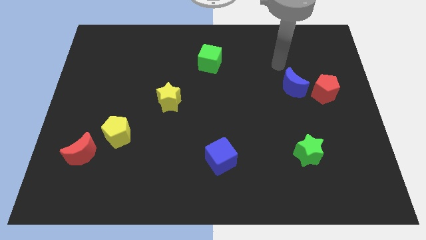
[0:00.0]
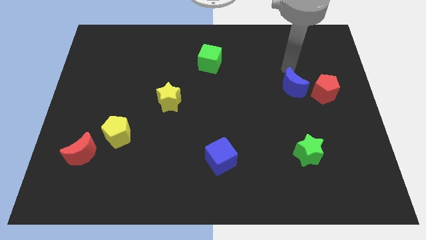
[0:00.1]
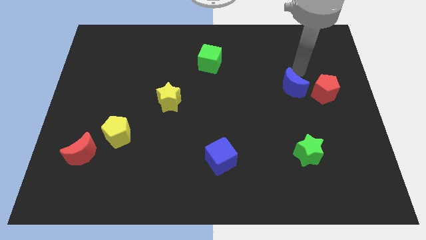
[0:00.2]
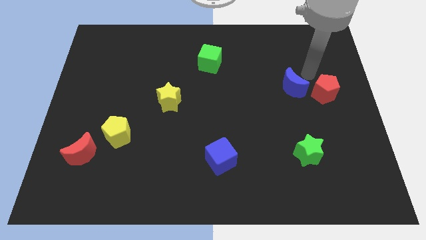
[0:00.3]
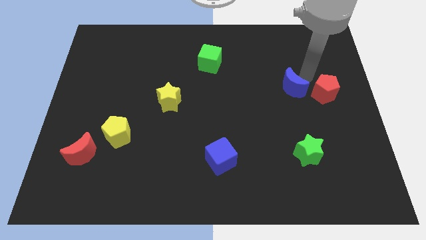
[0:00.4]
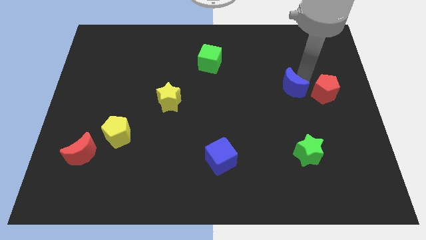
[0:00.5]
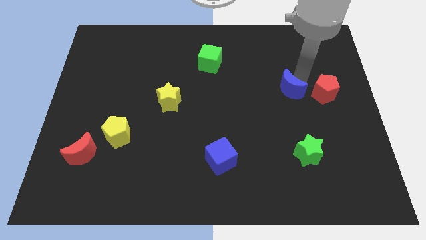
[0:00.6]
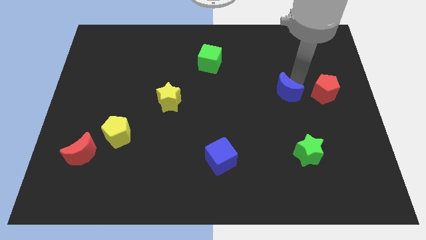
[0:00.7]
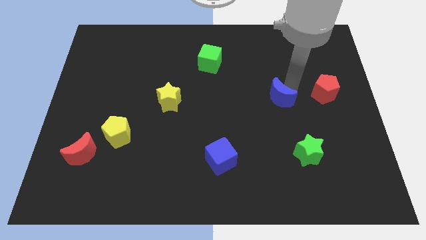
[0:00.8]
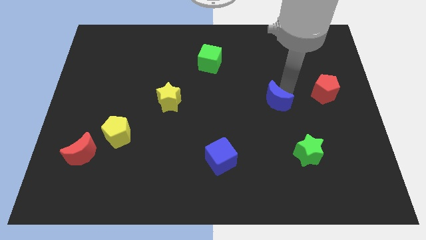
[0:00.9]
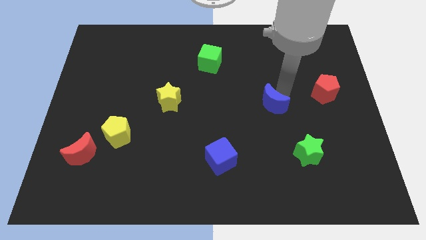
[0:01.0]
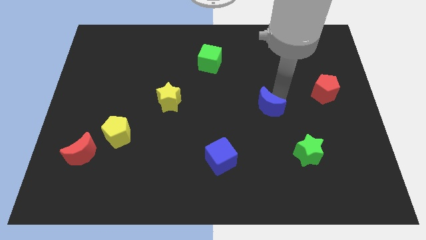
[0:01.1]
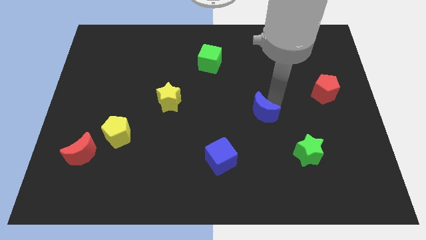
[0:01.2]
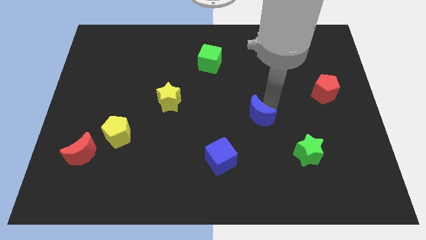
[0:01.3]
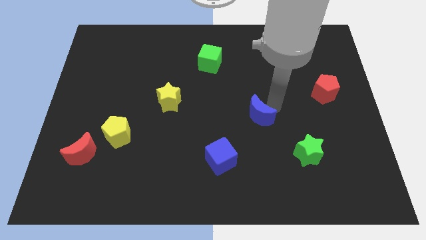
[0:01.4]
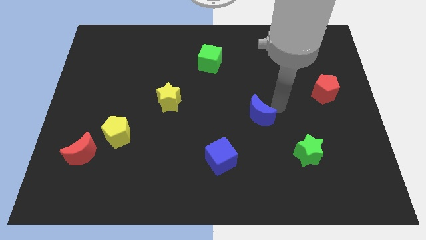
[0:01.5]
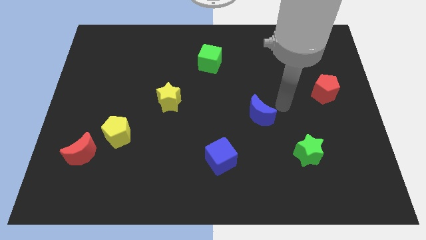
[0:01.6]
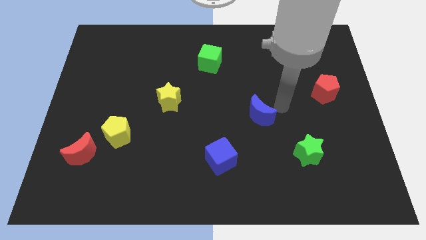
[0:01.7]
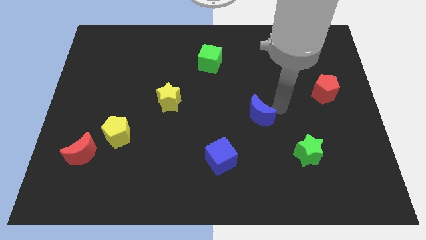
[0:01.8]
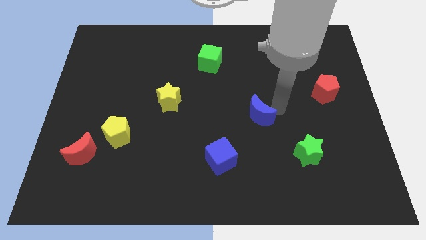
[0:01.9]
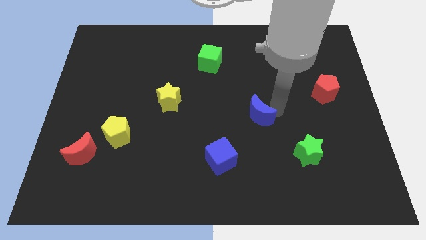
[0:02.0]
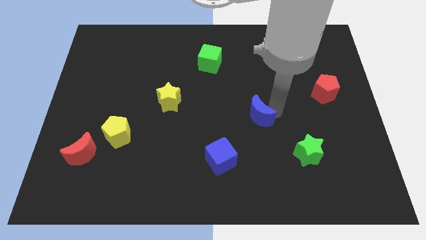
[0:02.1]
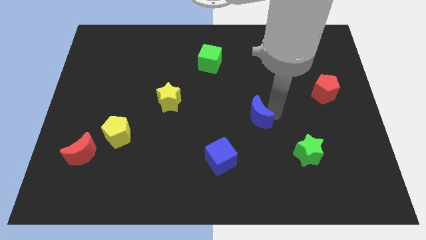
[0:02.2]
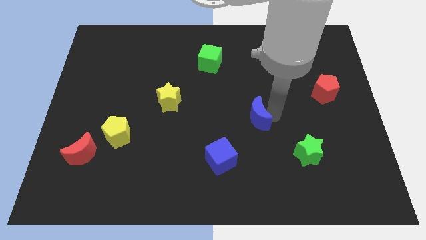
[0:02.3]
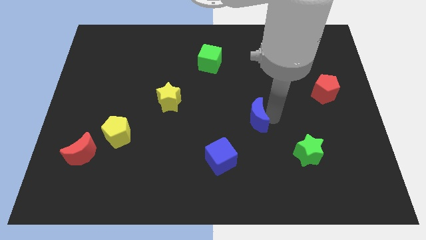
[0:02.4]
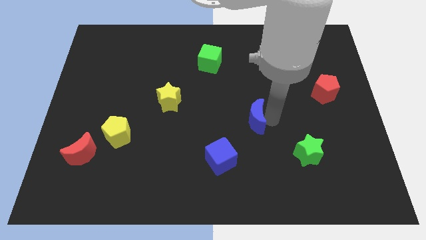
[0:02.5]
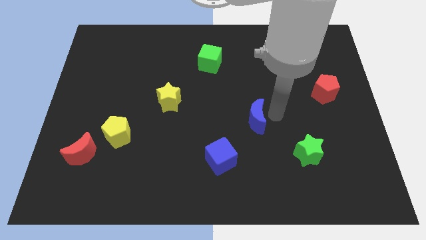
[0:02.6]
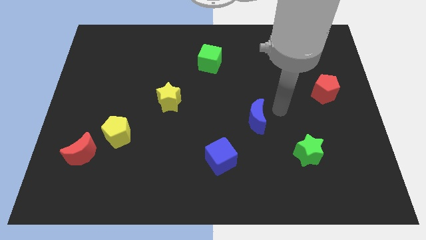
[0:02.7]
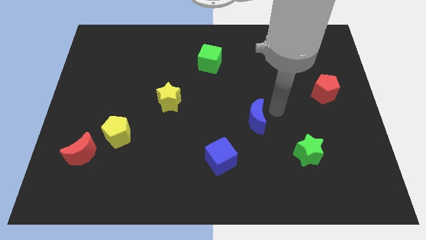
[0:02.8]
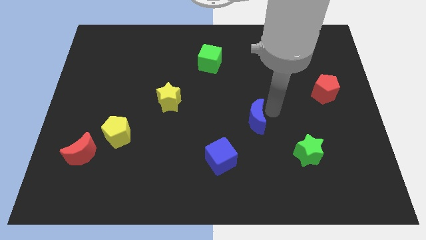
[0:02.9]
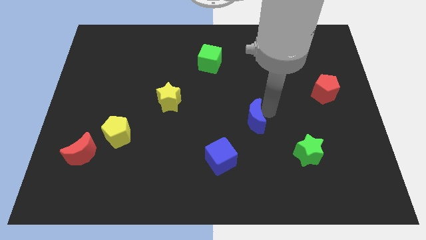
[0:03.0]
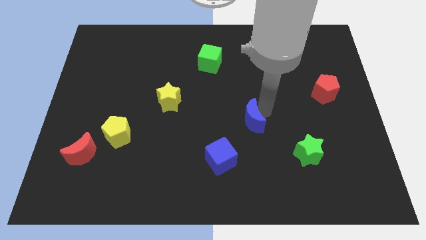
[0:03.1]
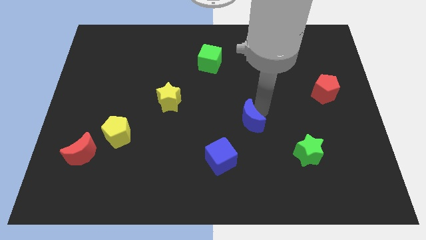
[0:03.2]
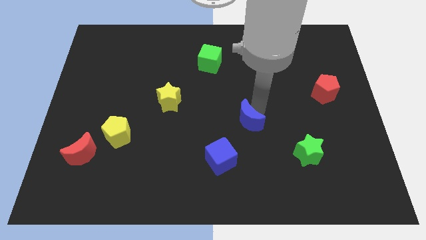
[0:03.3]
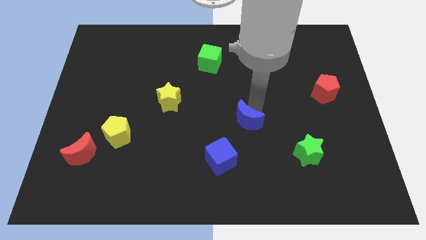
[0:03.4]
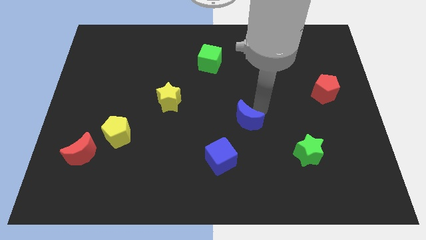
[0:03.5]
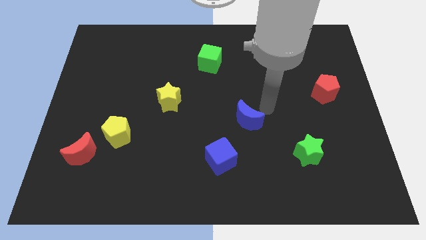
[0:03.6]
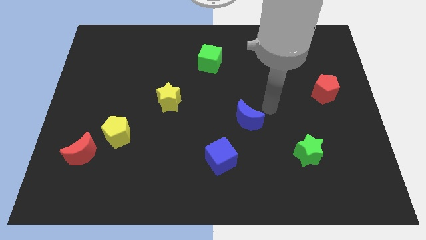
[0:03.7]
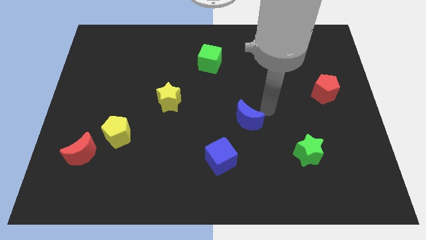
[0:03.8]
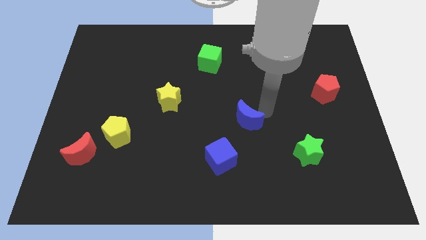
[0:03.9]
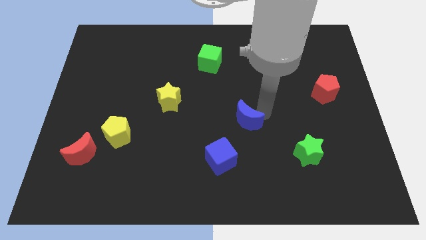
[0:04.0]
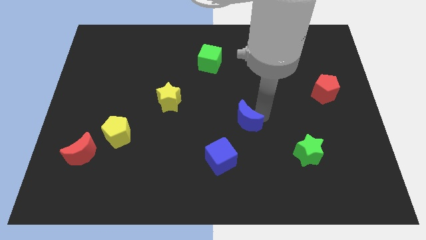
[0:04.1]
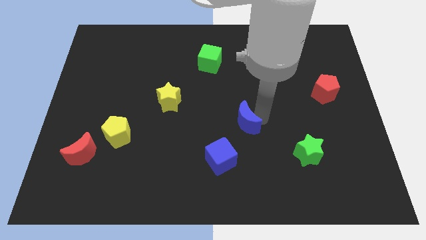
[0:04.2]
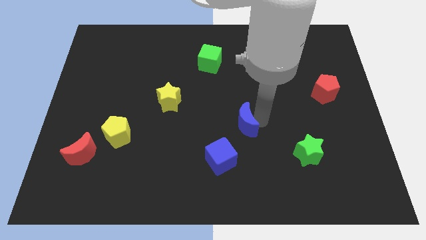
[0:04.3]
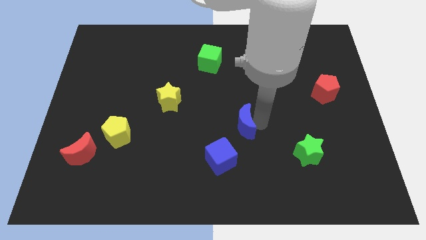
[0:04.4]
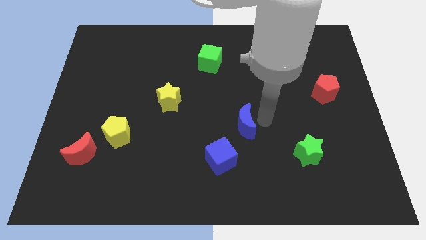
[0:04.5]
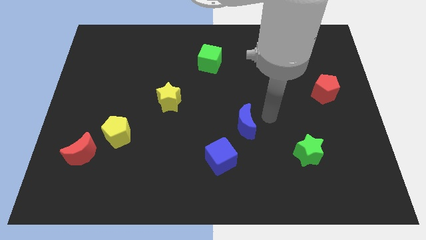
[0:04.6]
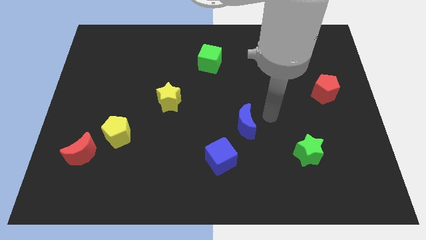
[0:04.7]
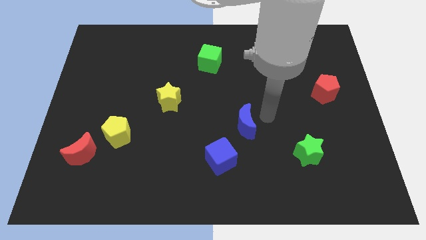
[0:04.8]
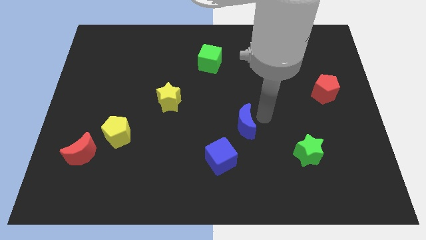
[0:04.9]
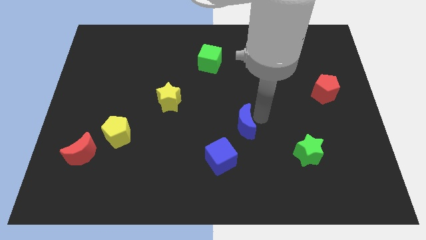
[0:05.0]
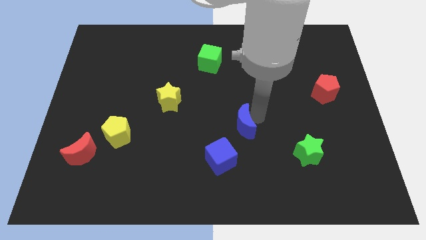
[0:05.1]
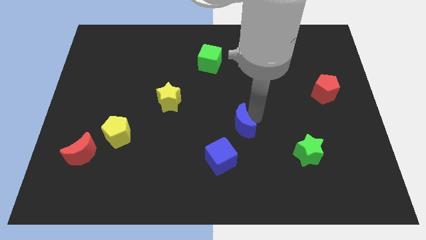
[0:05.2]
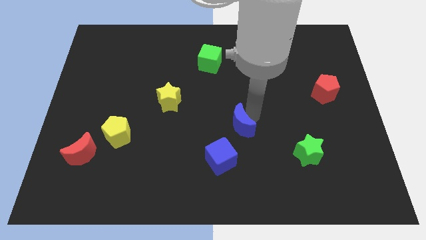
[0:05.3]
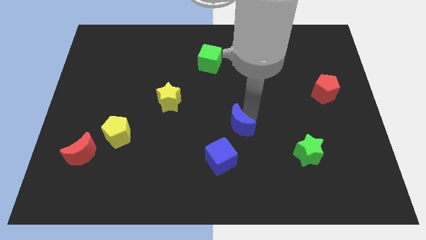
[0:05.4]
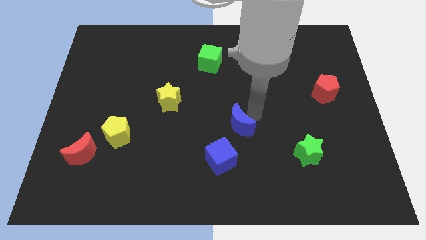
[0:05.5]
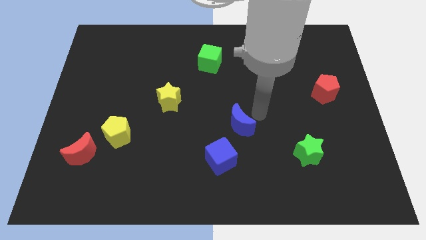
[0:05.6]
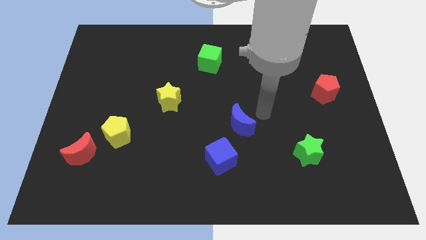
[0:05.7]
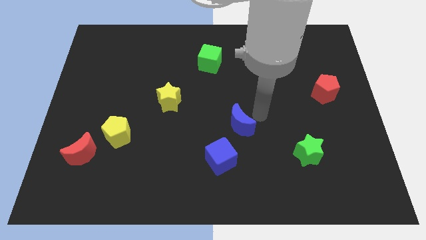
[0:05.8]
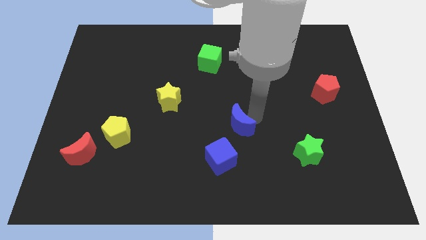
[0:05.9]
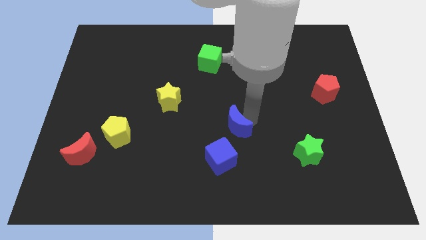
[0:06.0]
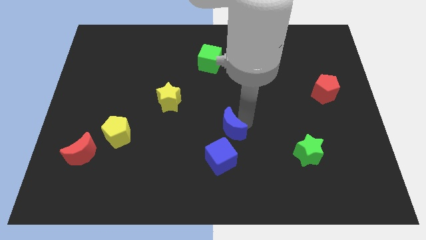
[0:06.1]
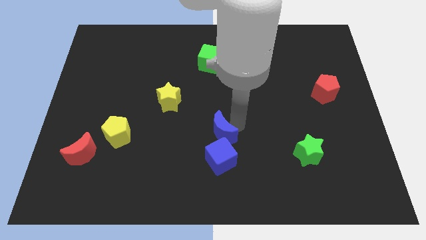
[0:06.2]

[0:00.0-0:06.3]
slide the blue moon down and to the left

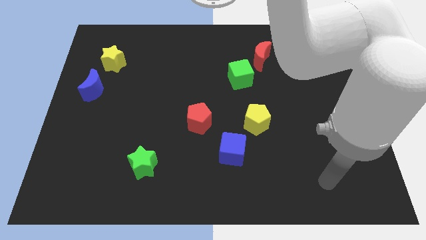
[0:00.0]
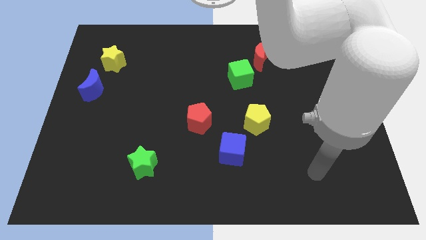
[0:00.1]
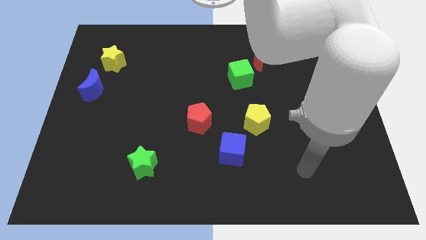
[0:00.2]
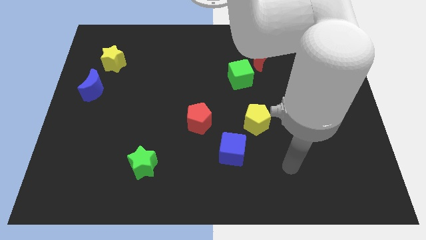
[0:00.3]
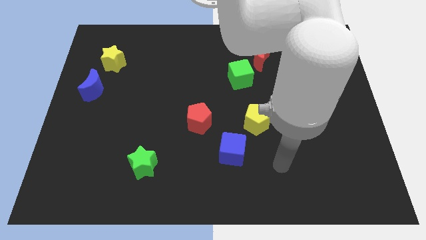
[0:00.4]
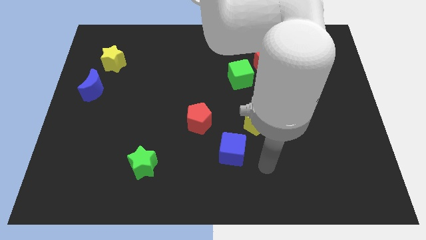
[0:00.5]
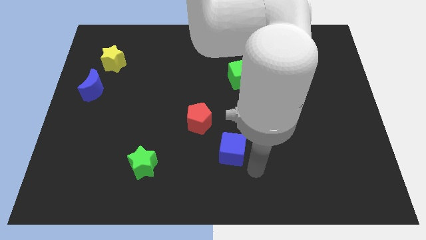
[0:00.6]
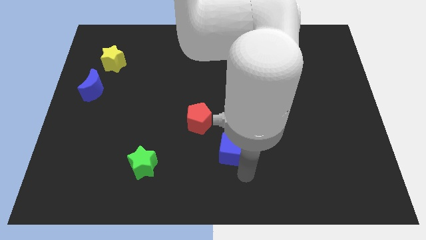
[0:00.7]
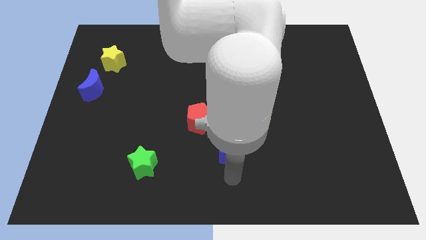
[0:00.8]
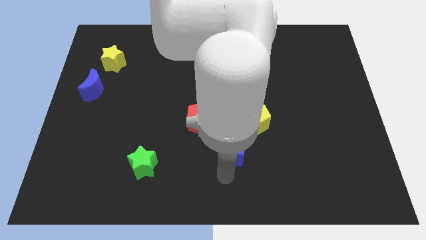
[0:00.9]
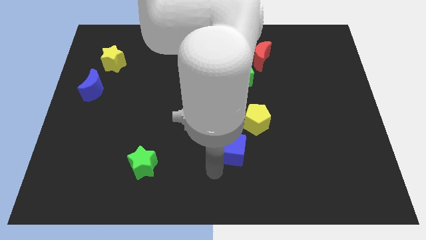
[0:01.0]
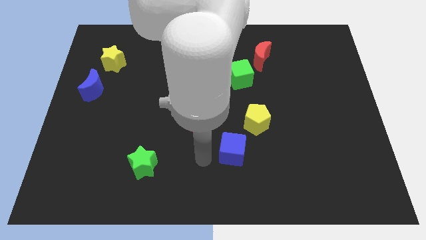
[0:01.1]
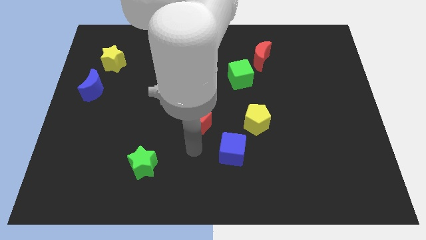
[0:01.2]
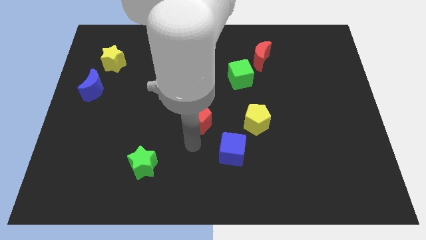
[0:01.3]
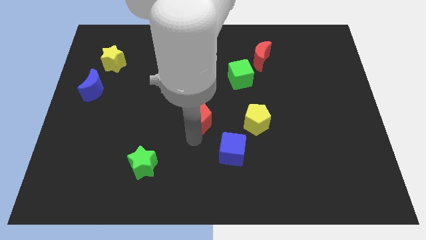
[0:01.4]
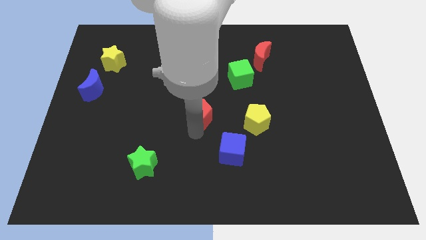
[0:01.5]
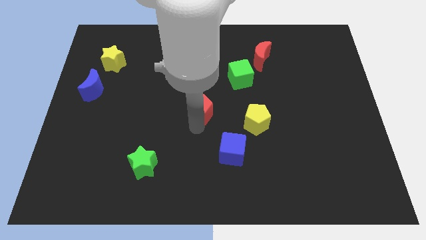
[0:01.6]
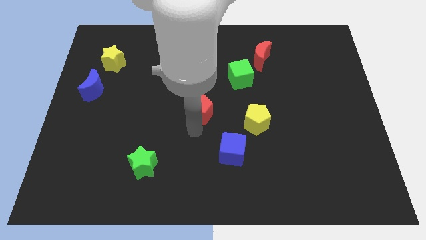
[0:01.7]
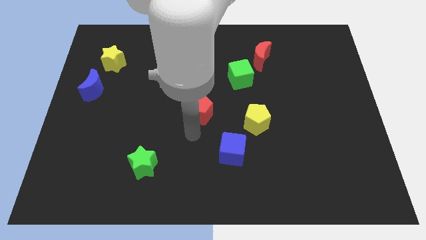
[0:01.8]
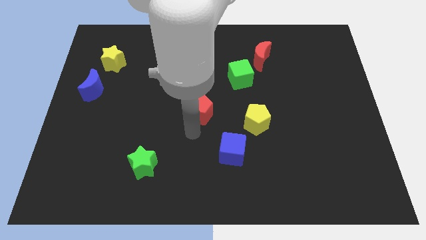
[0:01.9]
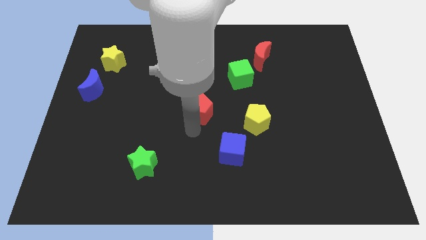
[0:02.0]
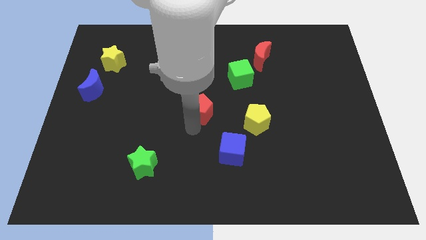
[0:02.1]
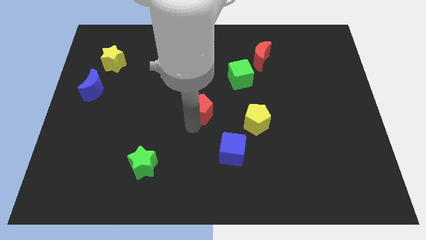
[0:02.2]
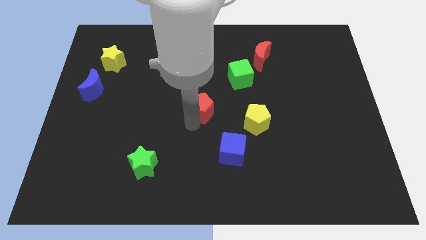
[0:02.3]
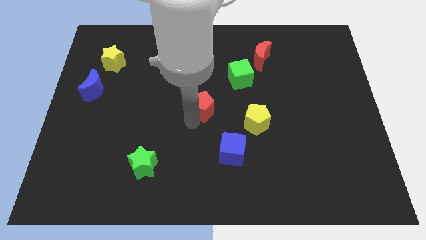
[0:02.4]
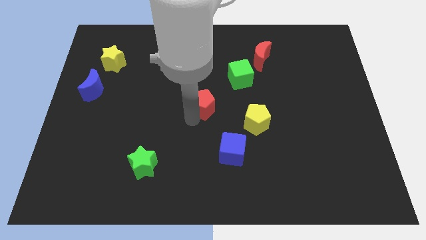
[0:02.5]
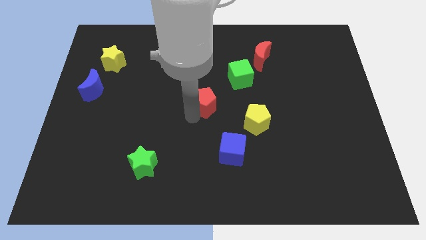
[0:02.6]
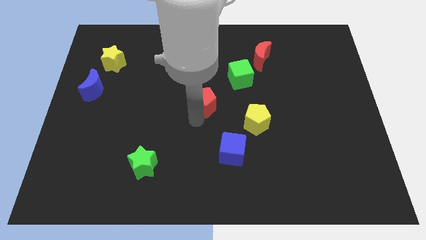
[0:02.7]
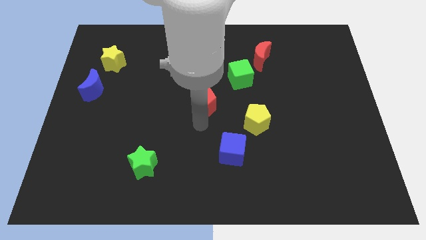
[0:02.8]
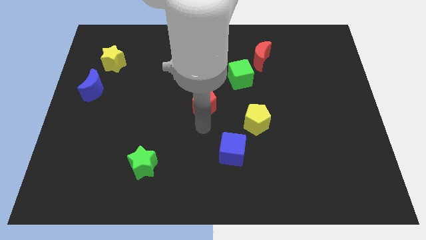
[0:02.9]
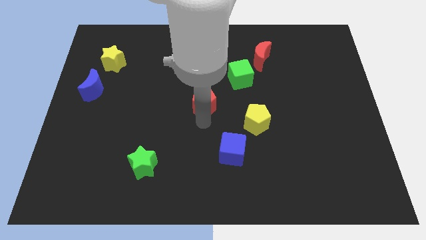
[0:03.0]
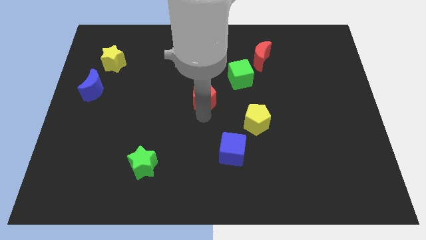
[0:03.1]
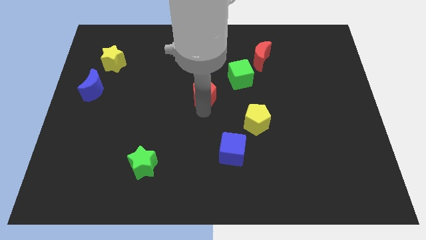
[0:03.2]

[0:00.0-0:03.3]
move the red pentagon upwards a little
